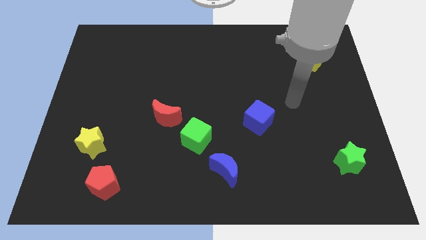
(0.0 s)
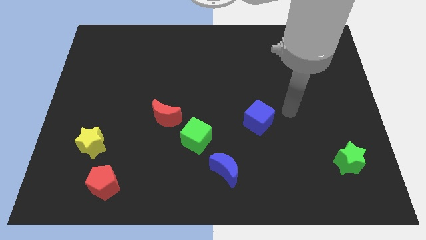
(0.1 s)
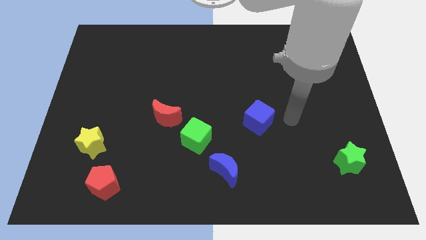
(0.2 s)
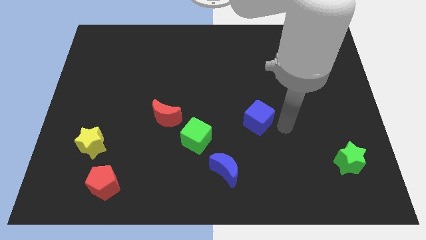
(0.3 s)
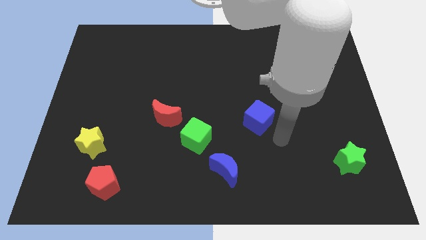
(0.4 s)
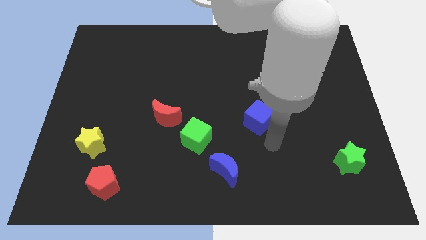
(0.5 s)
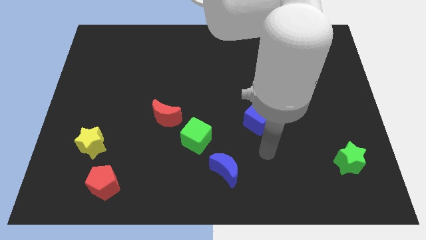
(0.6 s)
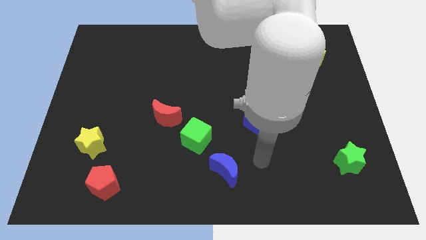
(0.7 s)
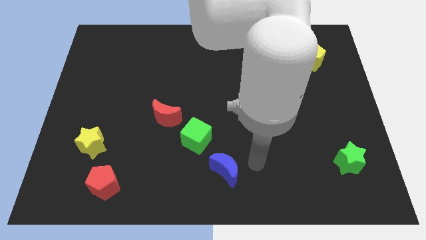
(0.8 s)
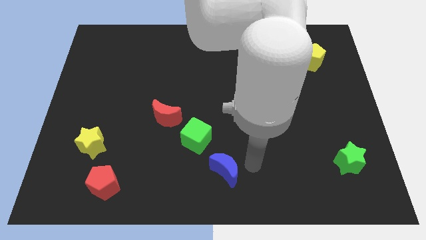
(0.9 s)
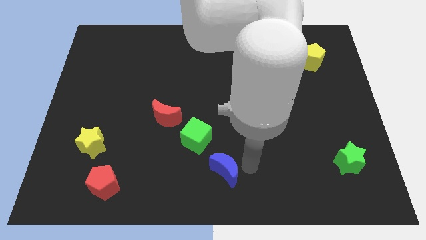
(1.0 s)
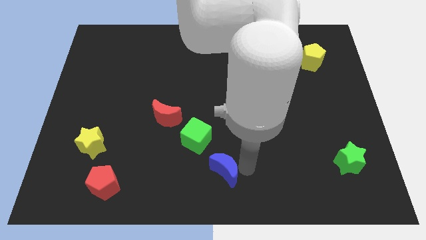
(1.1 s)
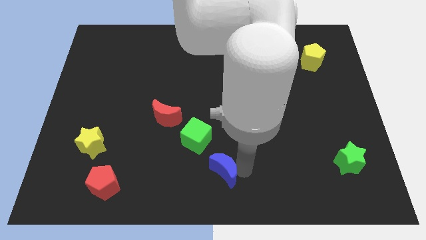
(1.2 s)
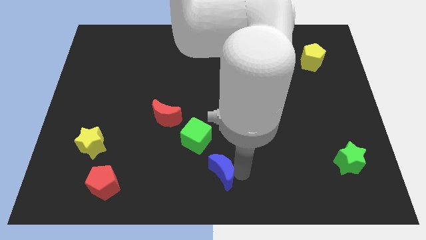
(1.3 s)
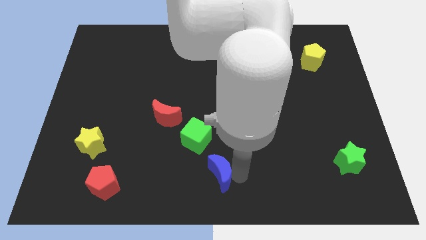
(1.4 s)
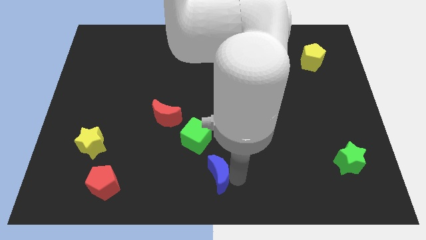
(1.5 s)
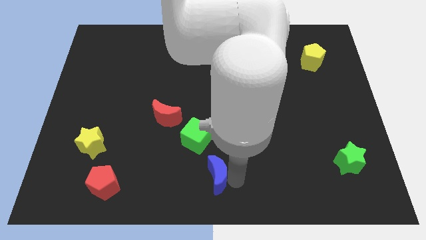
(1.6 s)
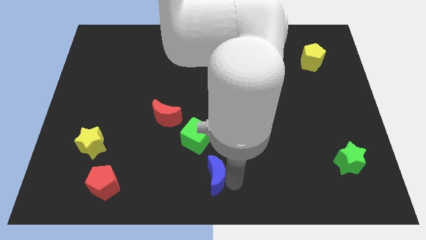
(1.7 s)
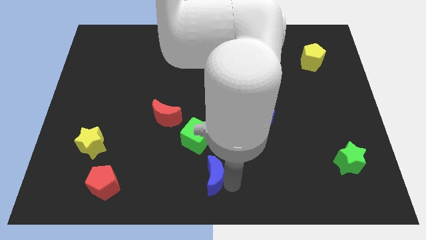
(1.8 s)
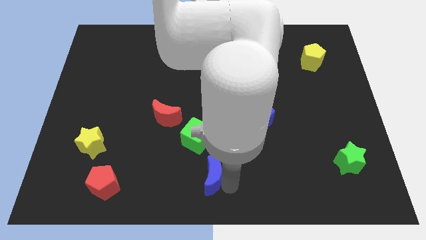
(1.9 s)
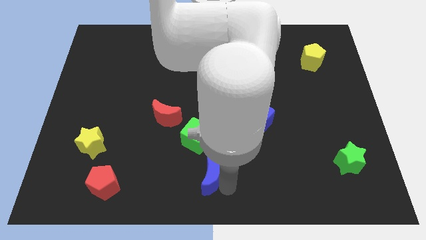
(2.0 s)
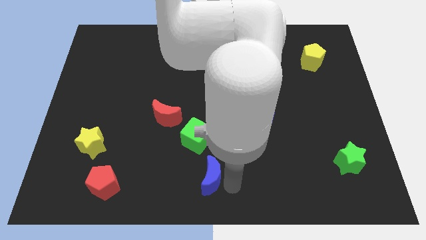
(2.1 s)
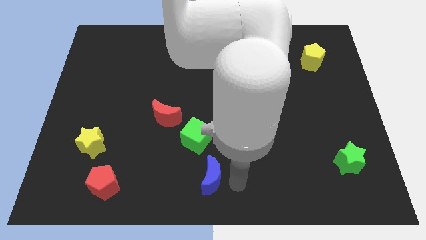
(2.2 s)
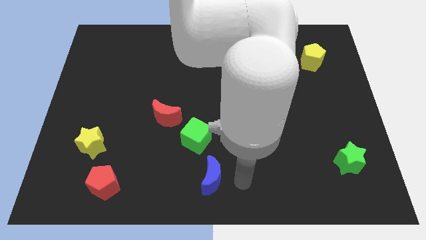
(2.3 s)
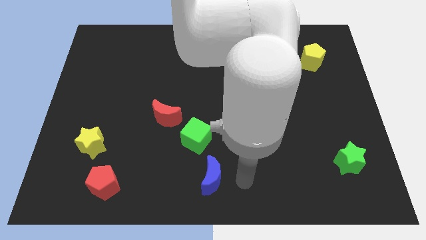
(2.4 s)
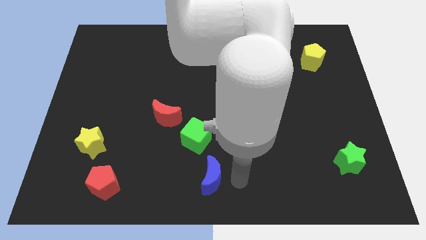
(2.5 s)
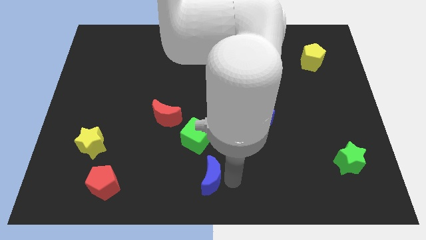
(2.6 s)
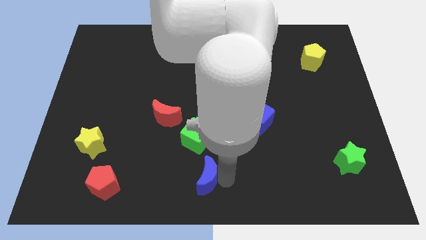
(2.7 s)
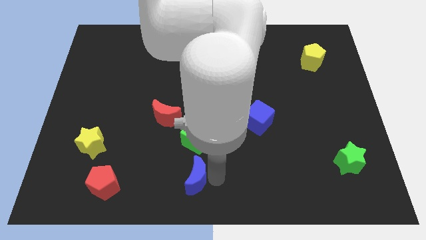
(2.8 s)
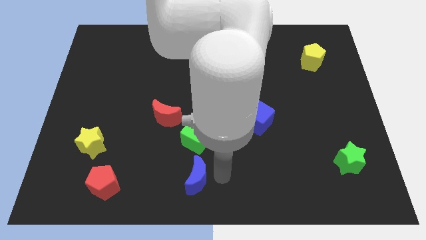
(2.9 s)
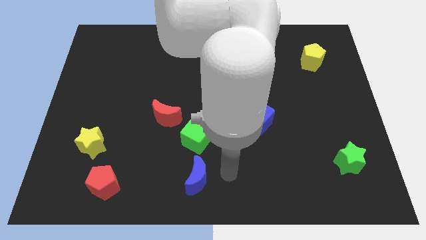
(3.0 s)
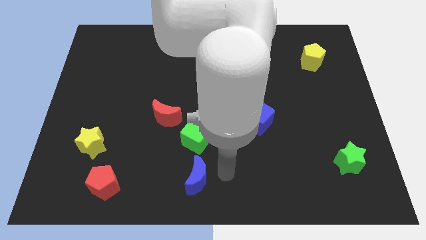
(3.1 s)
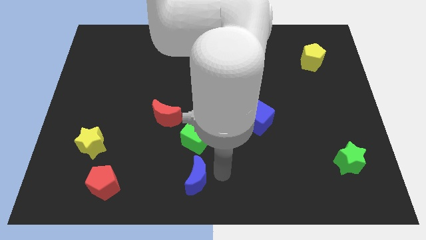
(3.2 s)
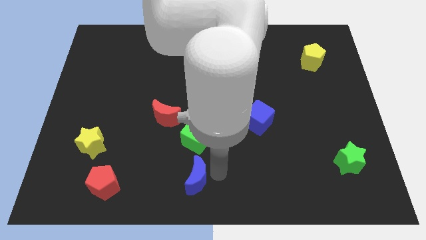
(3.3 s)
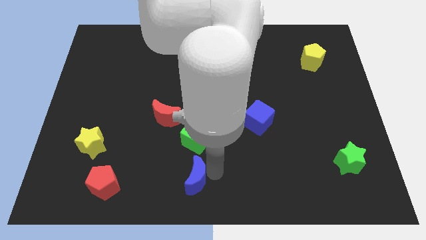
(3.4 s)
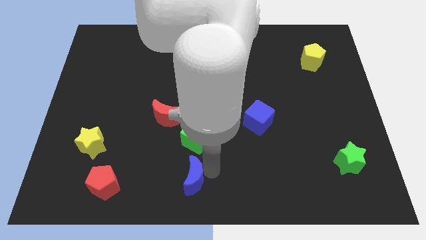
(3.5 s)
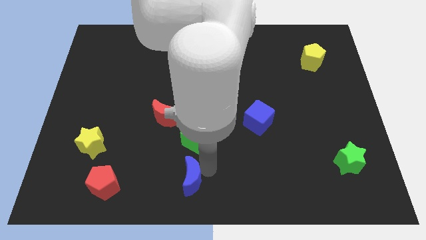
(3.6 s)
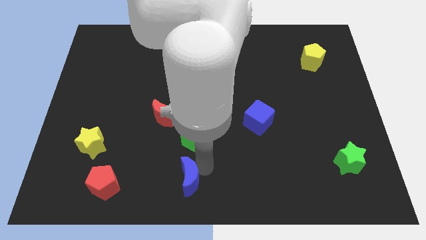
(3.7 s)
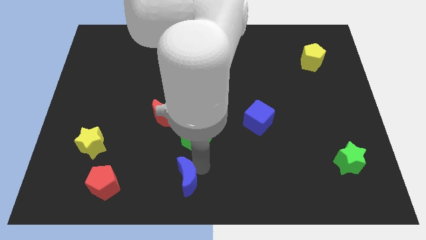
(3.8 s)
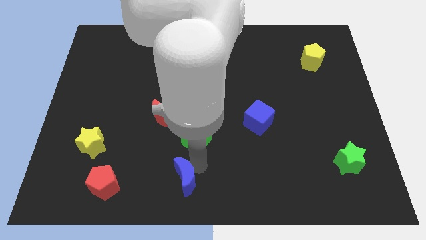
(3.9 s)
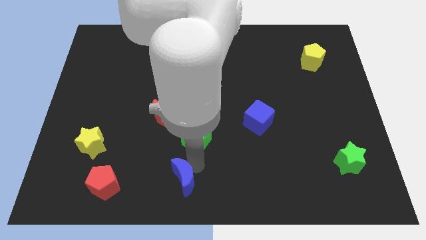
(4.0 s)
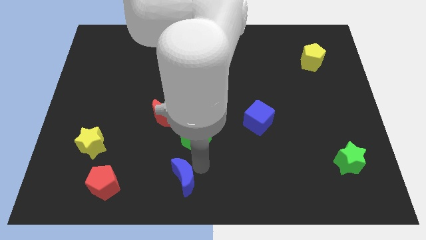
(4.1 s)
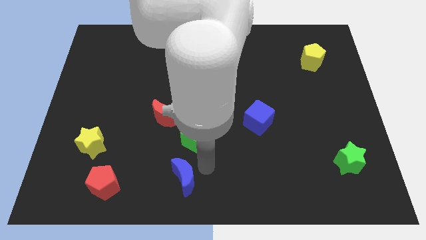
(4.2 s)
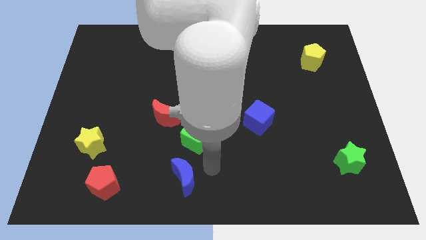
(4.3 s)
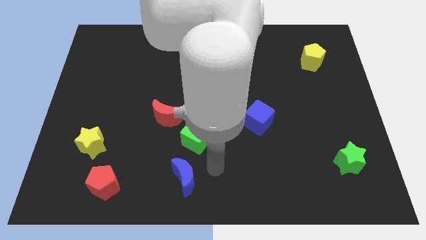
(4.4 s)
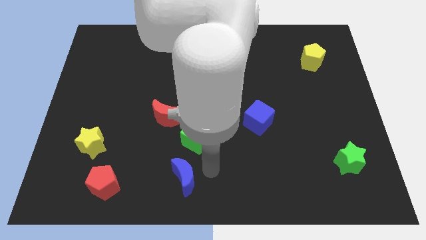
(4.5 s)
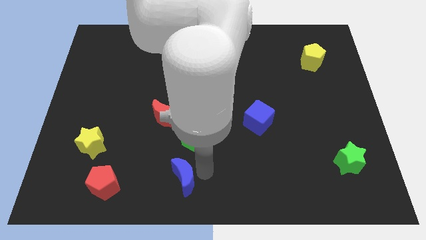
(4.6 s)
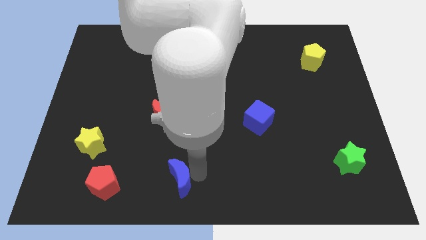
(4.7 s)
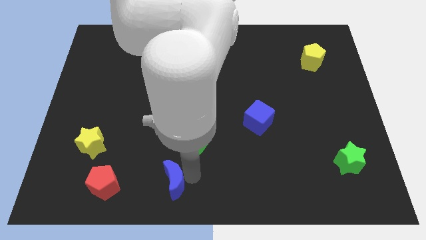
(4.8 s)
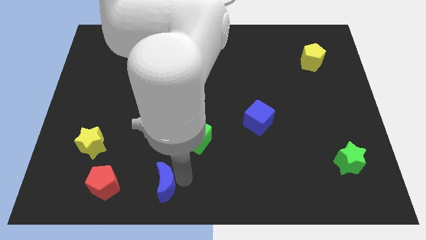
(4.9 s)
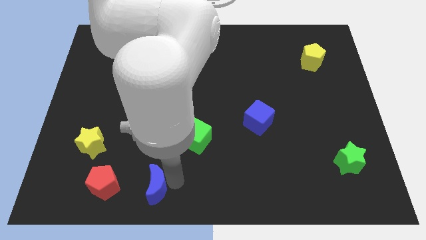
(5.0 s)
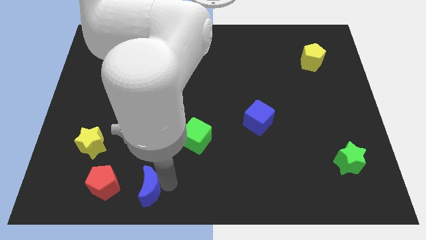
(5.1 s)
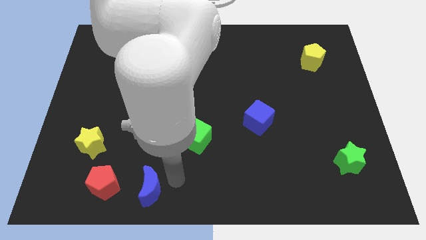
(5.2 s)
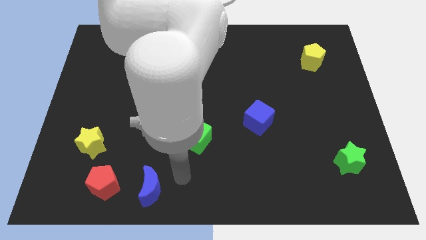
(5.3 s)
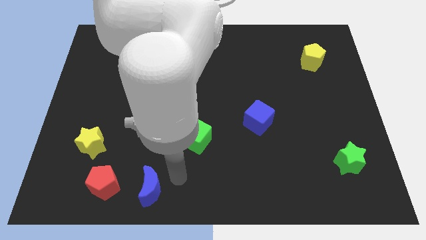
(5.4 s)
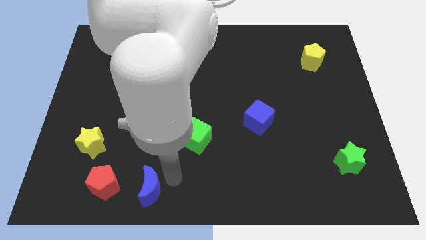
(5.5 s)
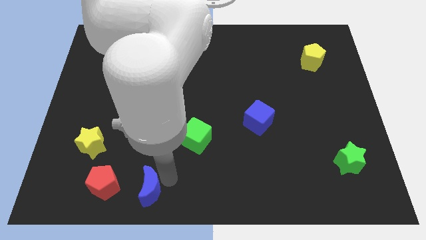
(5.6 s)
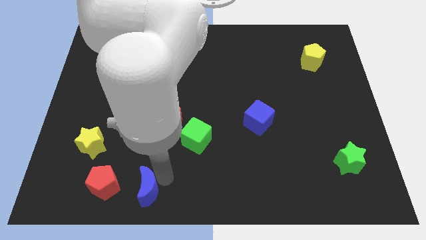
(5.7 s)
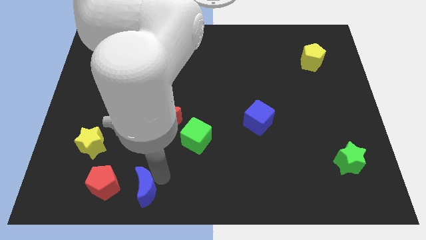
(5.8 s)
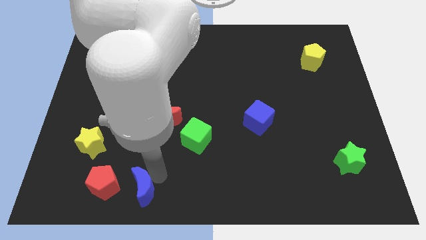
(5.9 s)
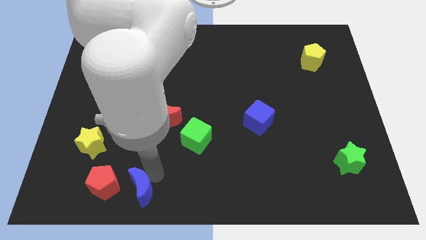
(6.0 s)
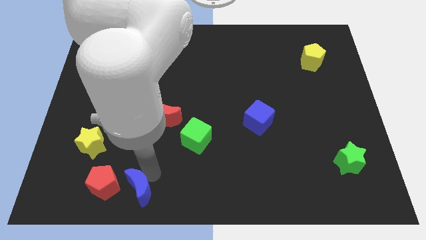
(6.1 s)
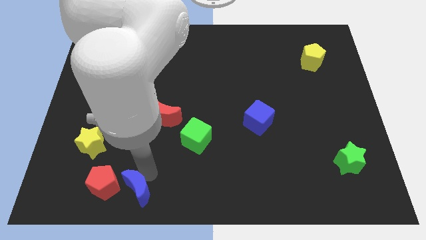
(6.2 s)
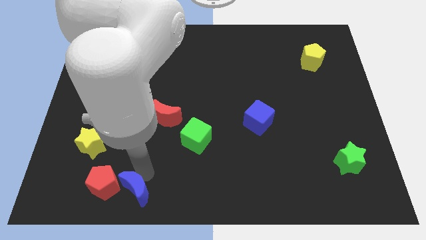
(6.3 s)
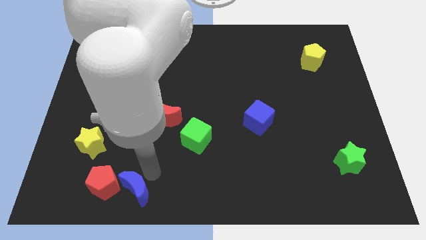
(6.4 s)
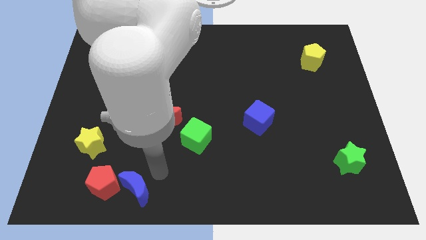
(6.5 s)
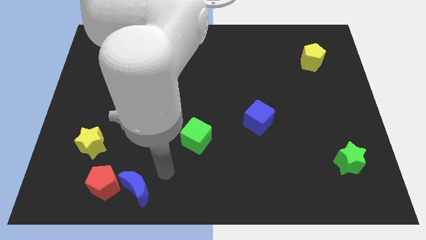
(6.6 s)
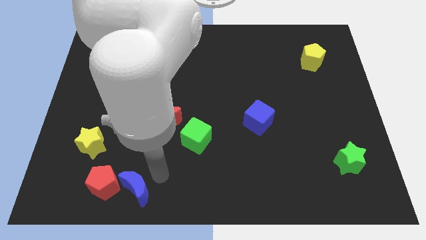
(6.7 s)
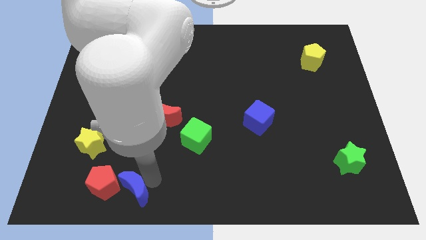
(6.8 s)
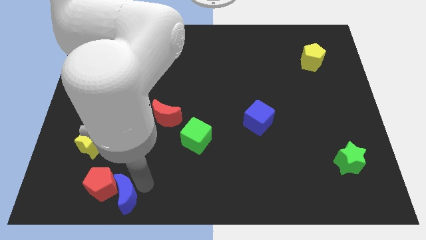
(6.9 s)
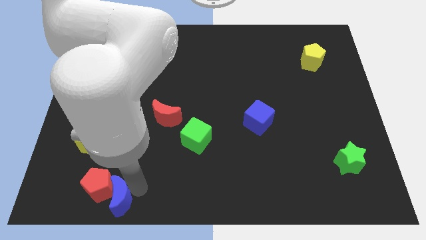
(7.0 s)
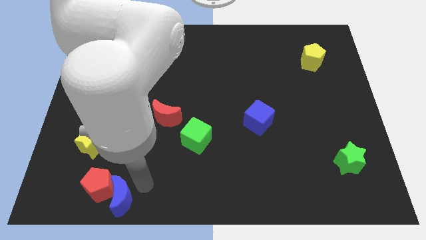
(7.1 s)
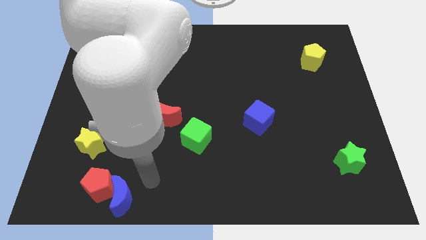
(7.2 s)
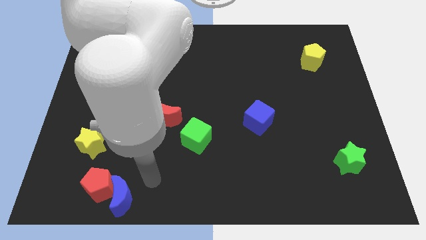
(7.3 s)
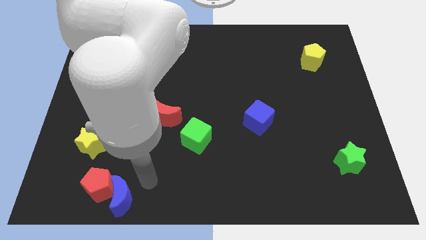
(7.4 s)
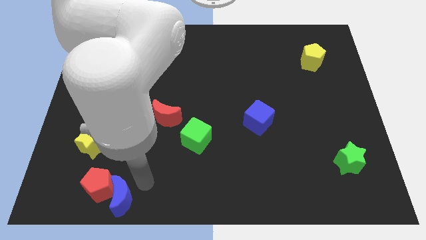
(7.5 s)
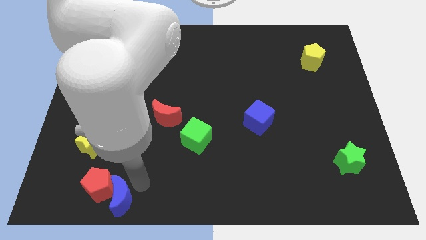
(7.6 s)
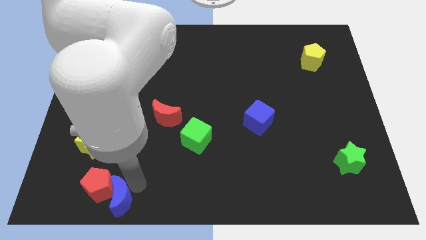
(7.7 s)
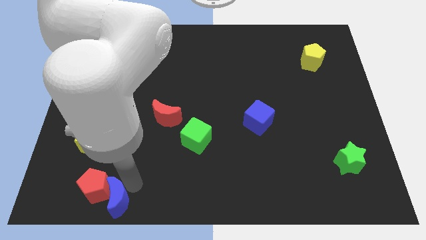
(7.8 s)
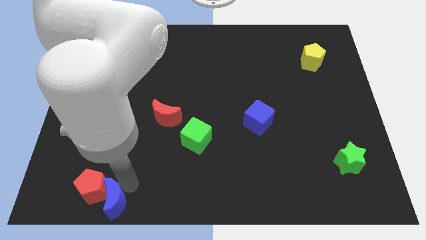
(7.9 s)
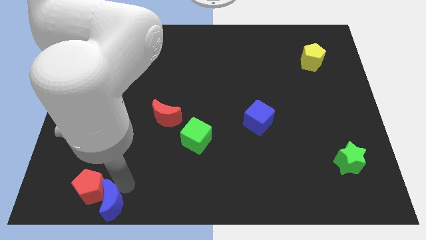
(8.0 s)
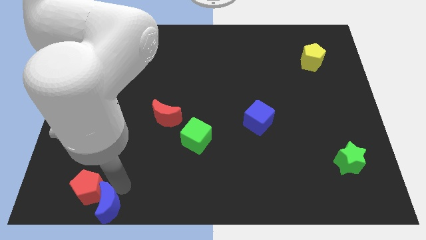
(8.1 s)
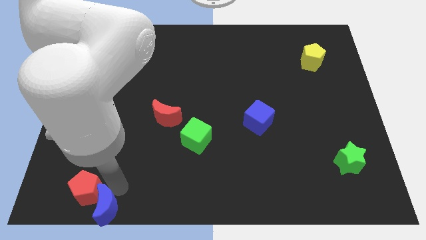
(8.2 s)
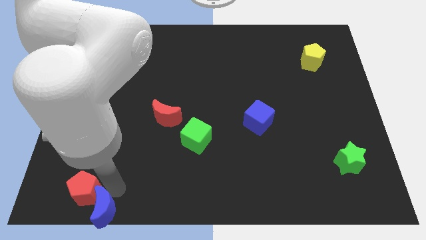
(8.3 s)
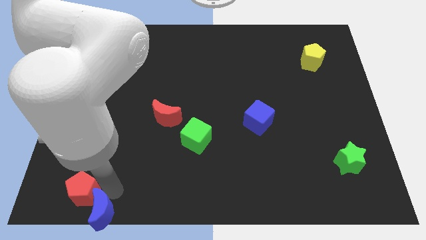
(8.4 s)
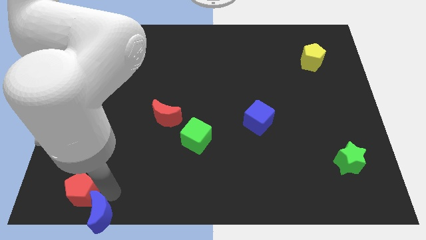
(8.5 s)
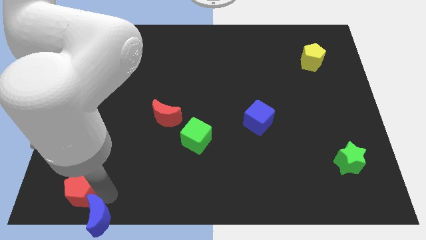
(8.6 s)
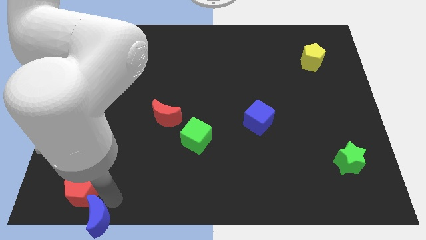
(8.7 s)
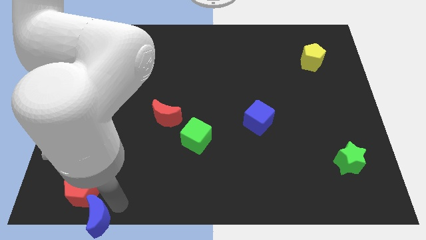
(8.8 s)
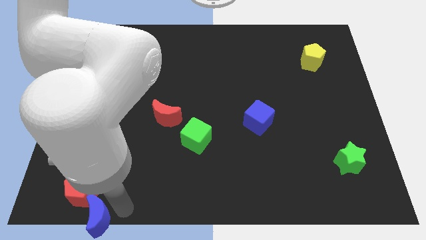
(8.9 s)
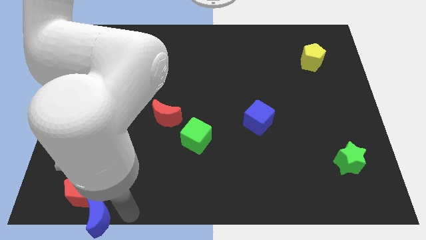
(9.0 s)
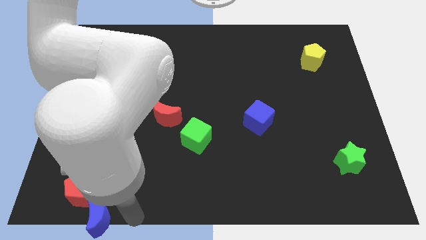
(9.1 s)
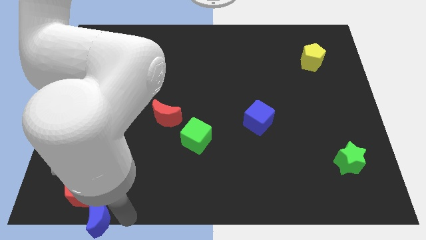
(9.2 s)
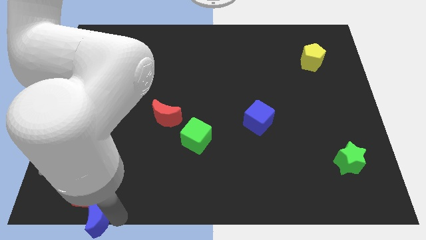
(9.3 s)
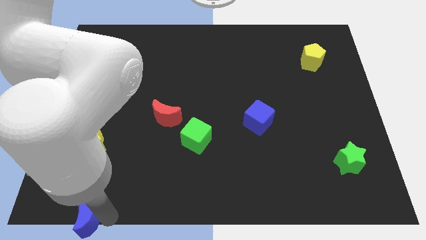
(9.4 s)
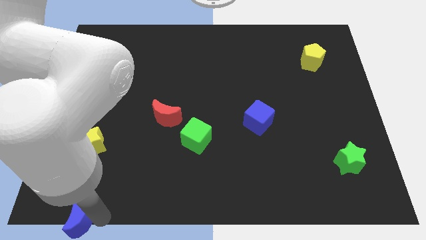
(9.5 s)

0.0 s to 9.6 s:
move the blue moon to the bottom left of the board
